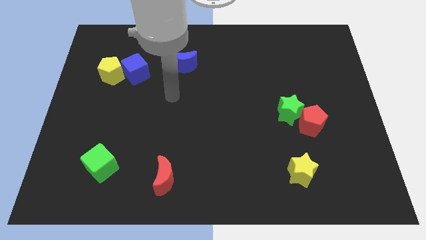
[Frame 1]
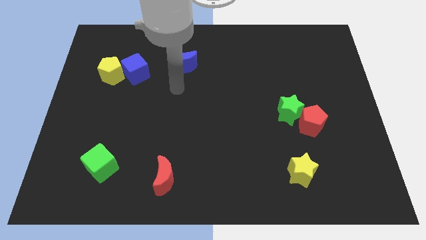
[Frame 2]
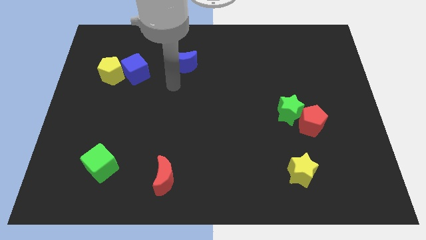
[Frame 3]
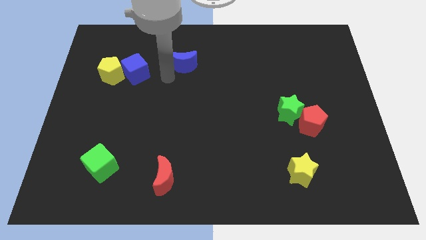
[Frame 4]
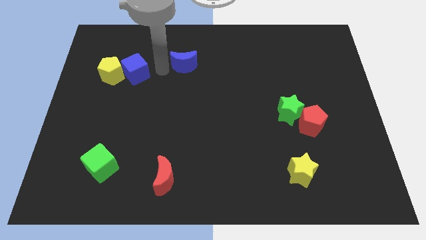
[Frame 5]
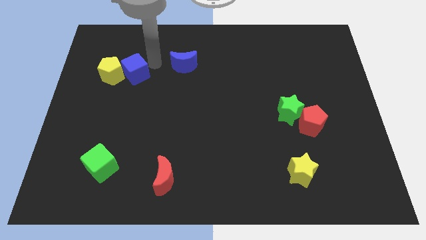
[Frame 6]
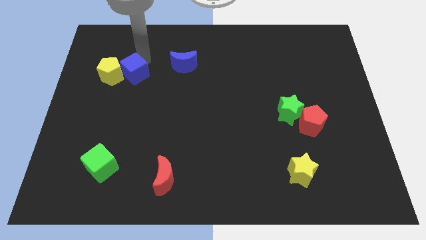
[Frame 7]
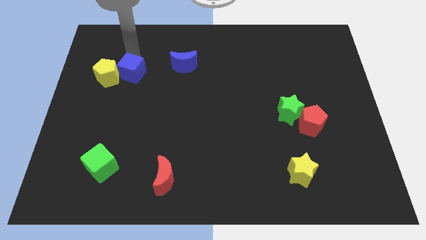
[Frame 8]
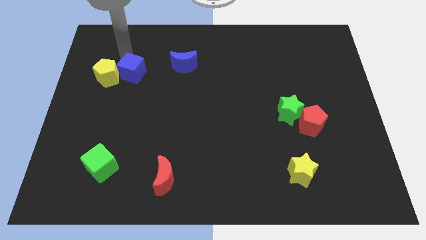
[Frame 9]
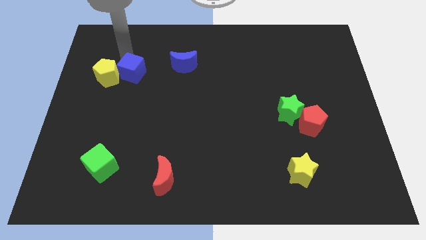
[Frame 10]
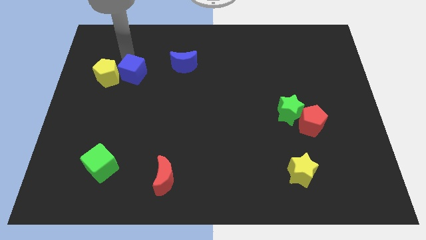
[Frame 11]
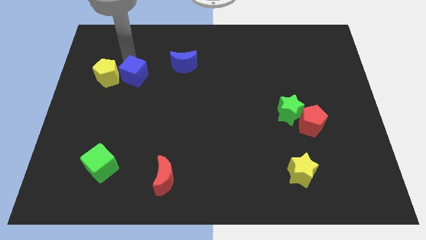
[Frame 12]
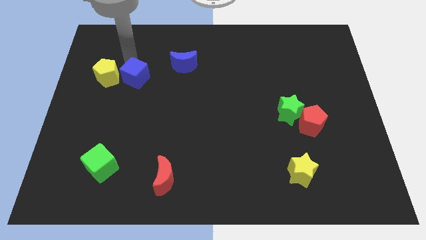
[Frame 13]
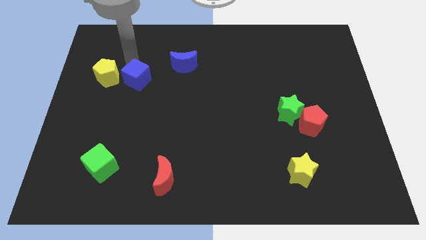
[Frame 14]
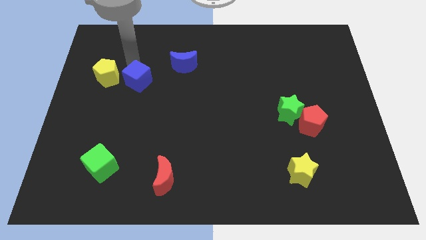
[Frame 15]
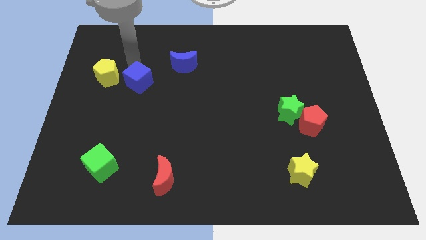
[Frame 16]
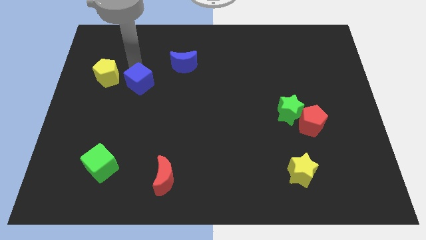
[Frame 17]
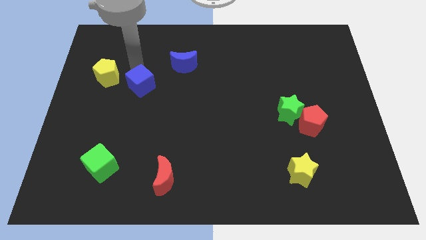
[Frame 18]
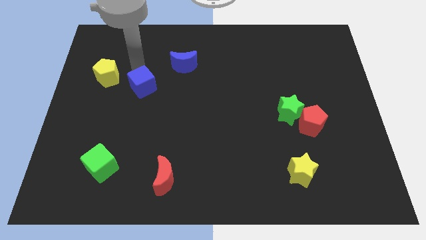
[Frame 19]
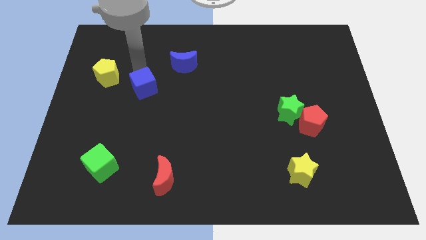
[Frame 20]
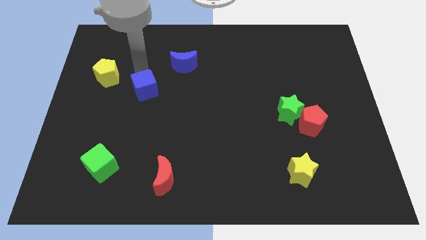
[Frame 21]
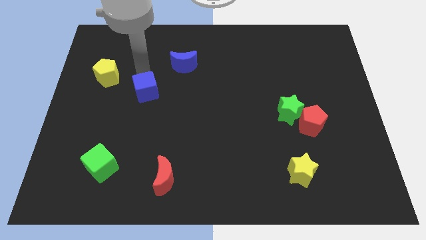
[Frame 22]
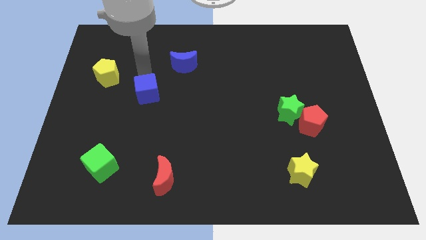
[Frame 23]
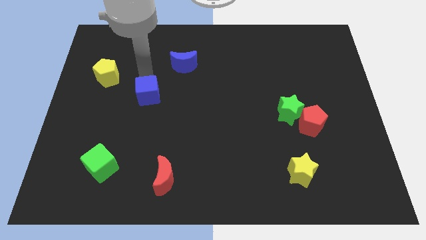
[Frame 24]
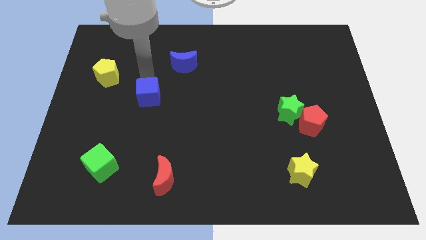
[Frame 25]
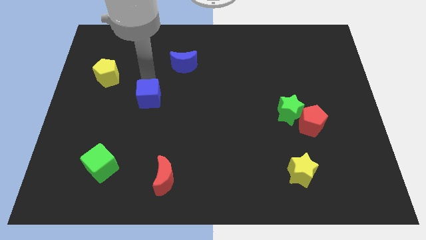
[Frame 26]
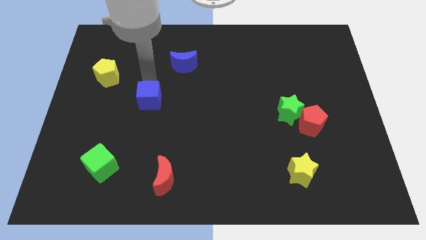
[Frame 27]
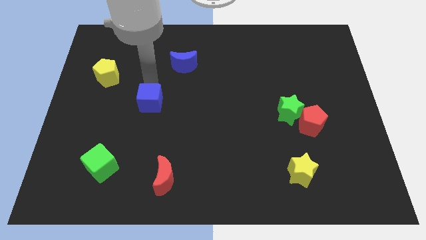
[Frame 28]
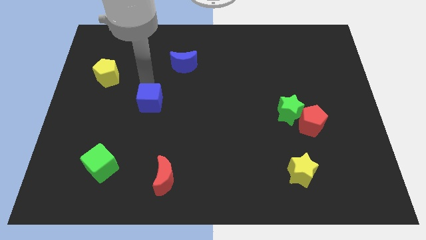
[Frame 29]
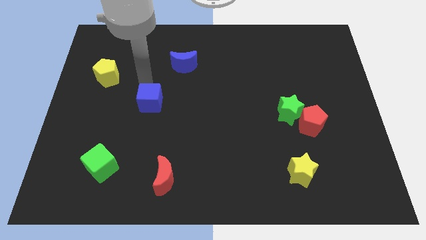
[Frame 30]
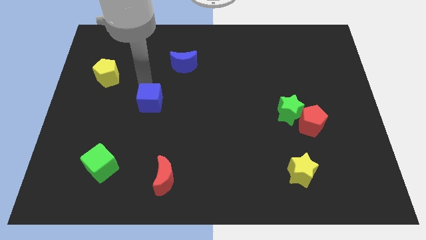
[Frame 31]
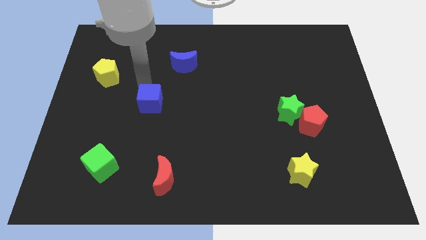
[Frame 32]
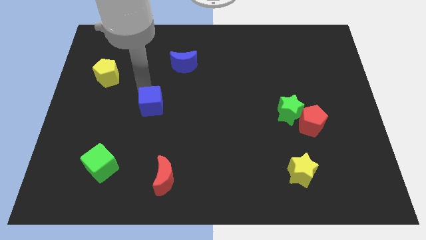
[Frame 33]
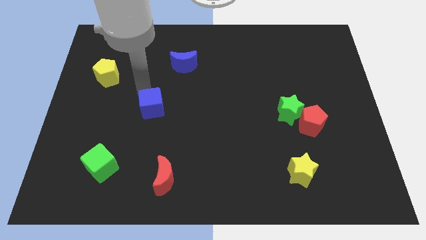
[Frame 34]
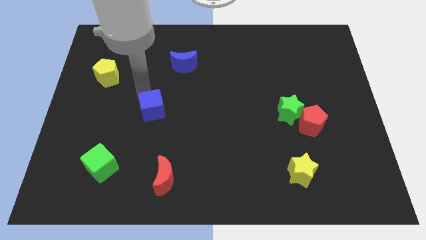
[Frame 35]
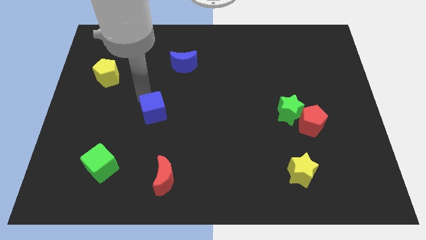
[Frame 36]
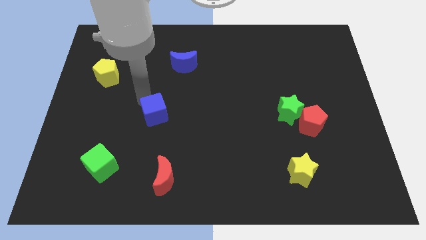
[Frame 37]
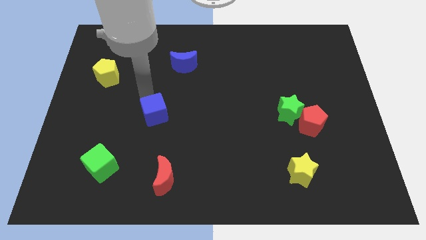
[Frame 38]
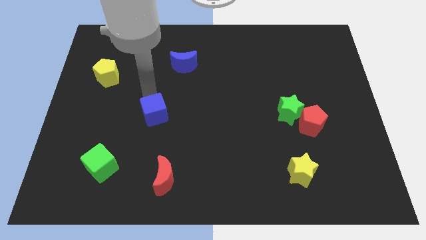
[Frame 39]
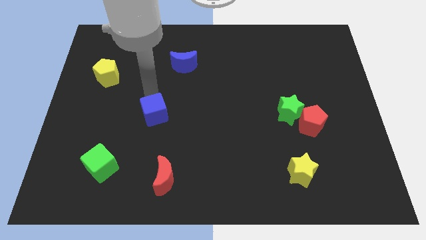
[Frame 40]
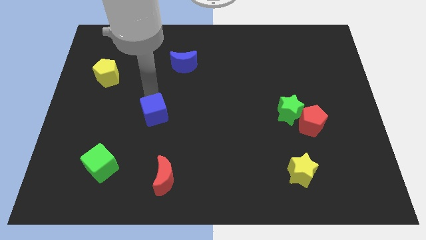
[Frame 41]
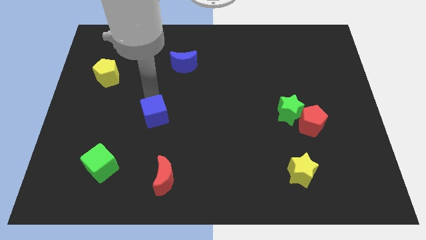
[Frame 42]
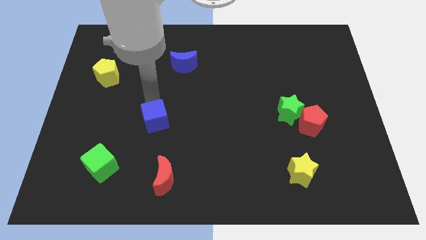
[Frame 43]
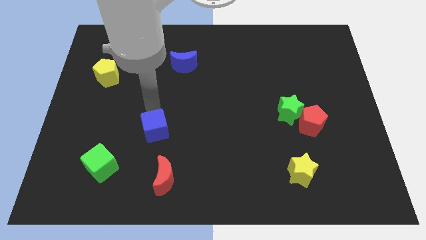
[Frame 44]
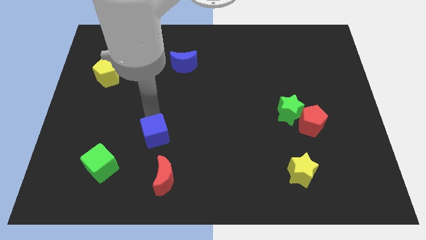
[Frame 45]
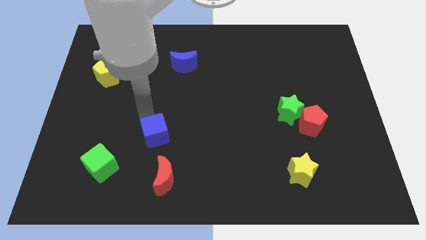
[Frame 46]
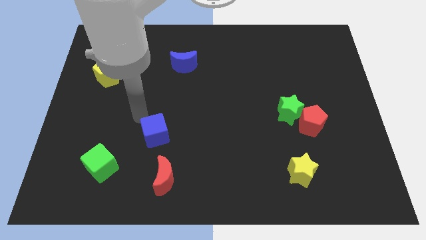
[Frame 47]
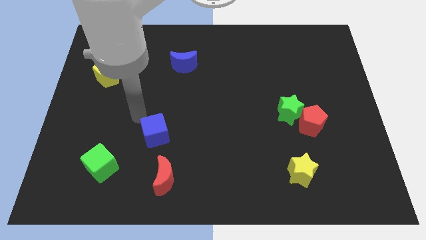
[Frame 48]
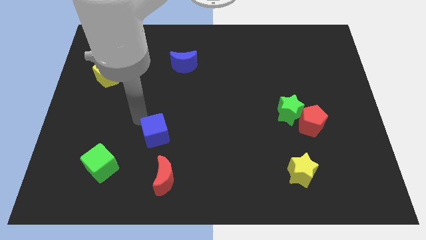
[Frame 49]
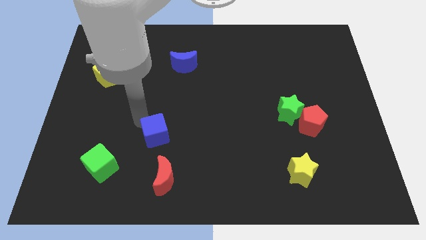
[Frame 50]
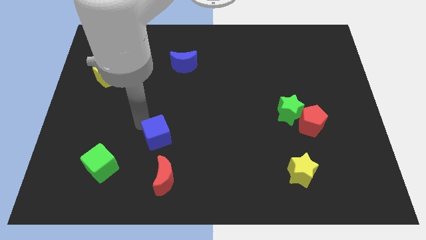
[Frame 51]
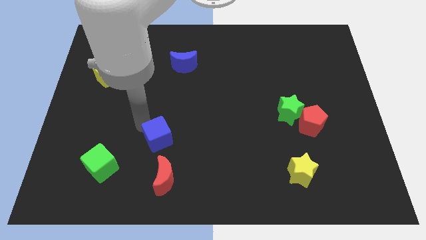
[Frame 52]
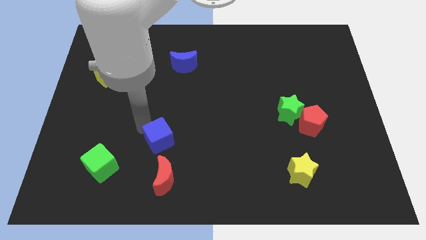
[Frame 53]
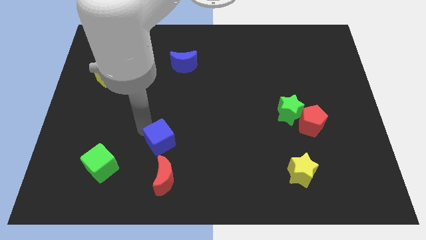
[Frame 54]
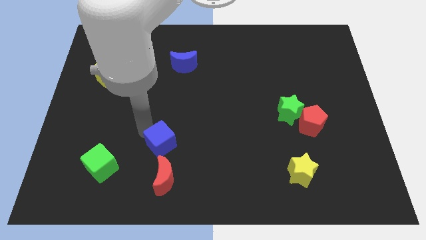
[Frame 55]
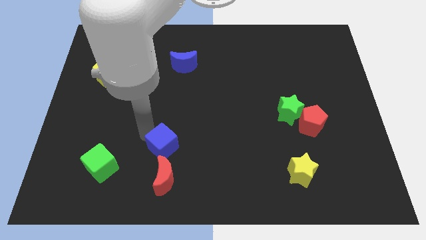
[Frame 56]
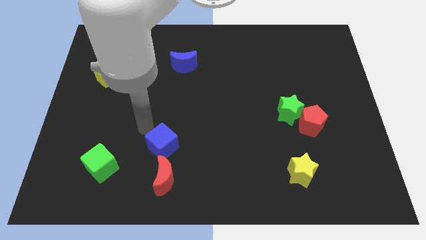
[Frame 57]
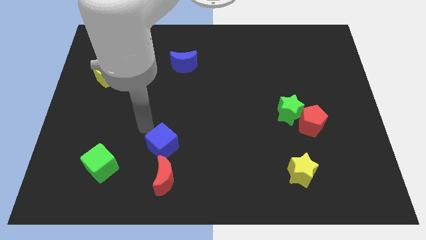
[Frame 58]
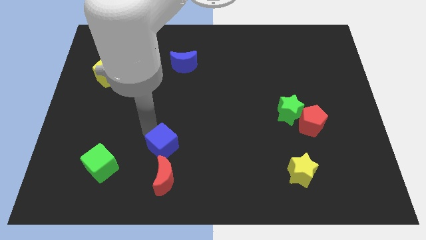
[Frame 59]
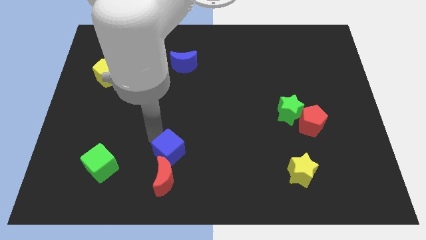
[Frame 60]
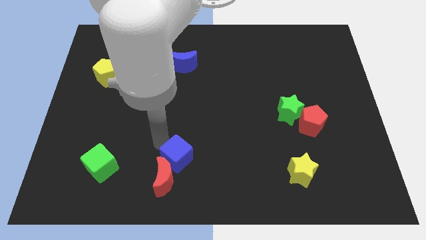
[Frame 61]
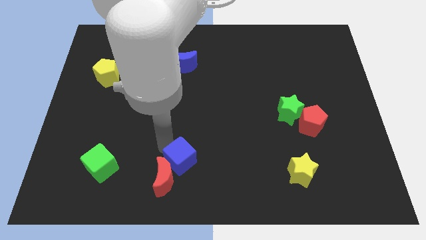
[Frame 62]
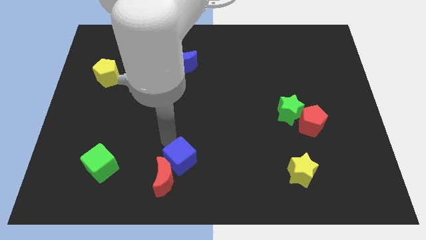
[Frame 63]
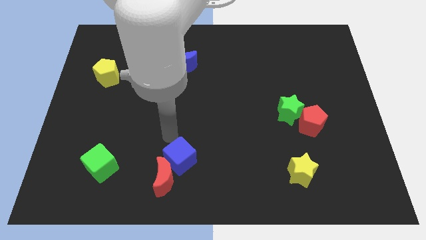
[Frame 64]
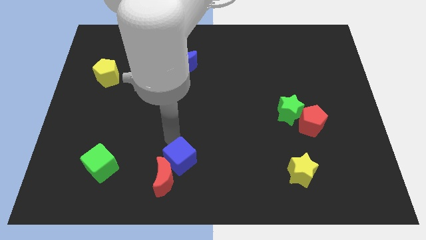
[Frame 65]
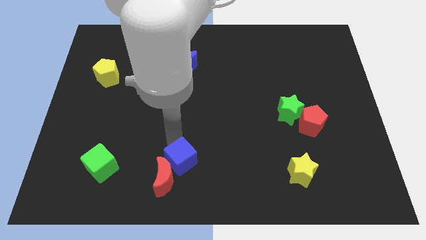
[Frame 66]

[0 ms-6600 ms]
slide the blue cube to the bottom side

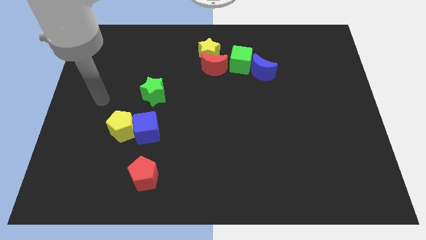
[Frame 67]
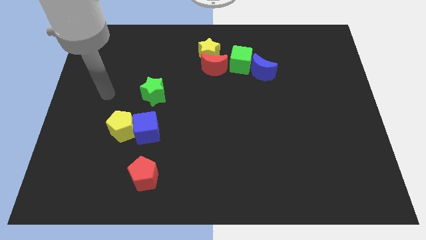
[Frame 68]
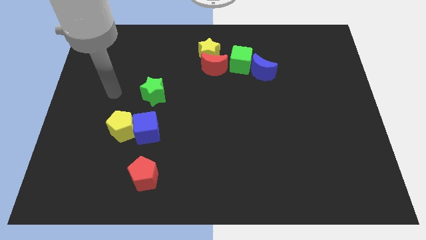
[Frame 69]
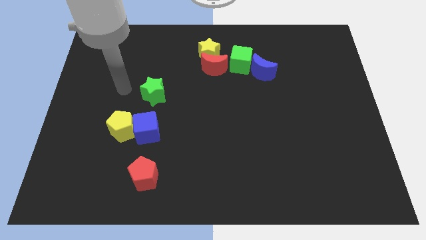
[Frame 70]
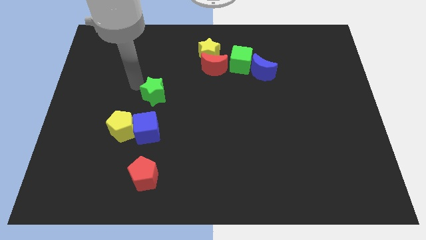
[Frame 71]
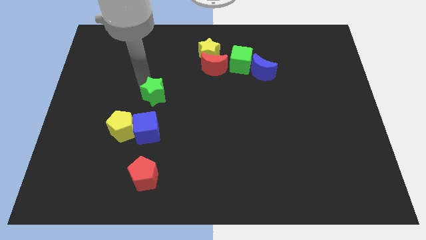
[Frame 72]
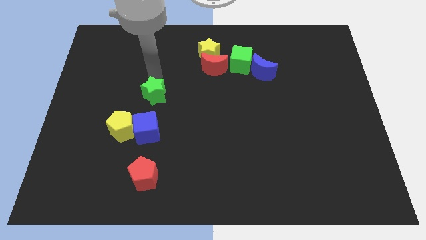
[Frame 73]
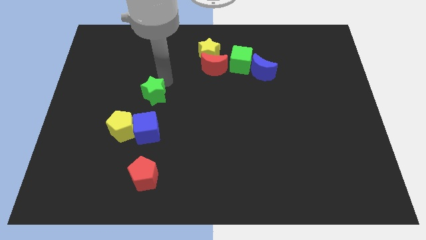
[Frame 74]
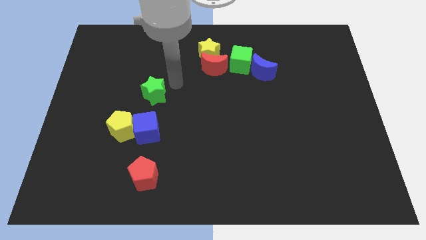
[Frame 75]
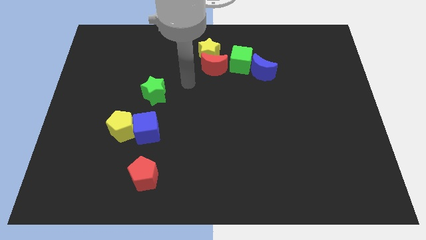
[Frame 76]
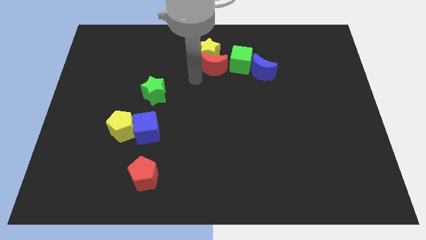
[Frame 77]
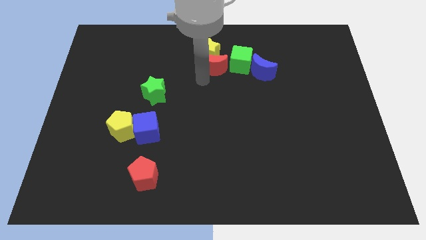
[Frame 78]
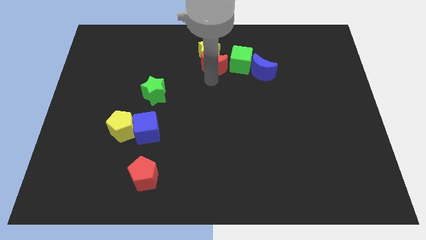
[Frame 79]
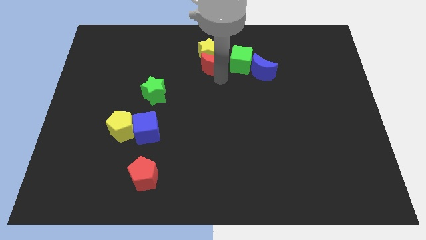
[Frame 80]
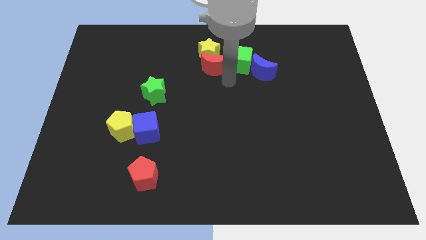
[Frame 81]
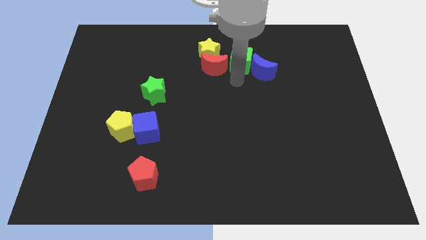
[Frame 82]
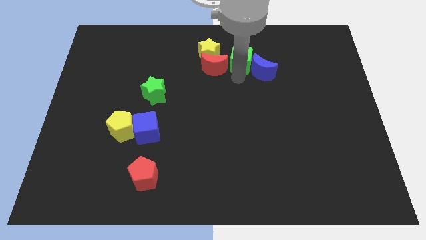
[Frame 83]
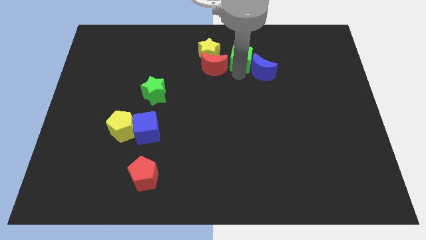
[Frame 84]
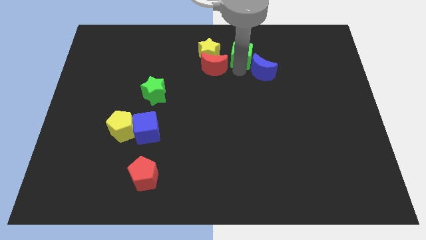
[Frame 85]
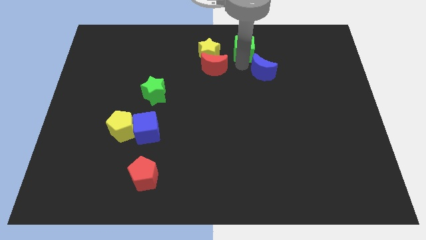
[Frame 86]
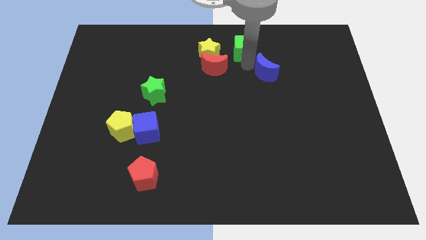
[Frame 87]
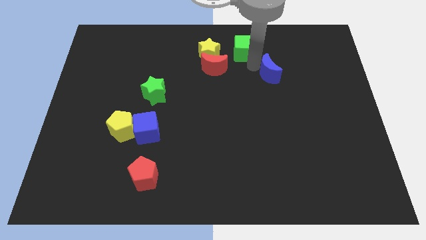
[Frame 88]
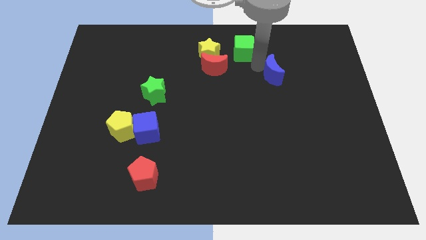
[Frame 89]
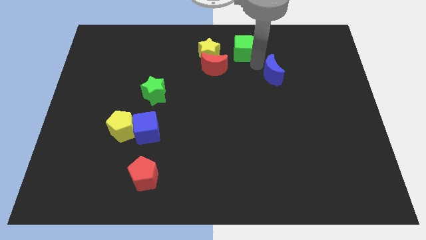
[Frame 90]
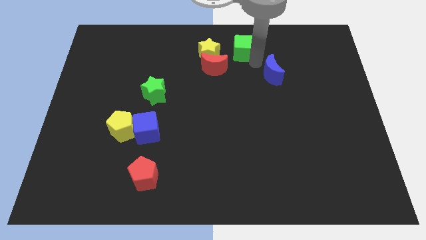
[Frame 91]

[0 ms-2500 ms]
move the green cube to the top
